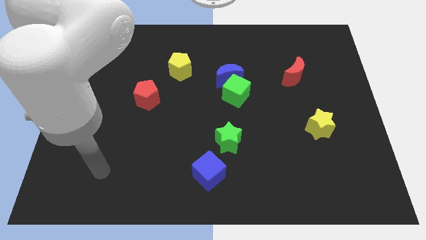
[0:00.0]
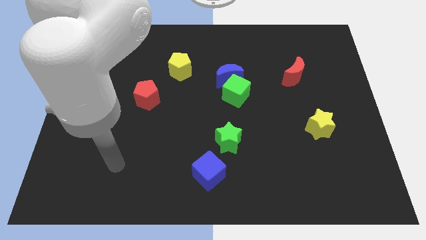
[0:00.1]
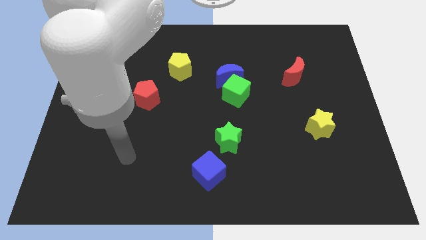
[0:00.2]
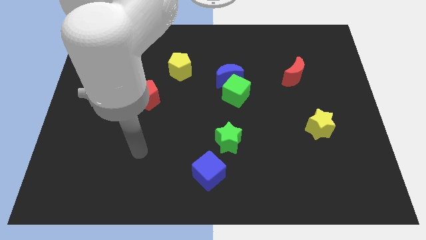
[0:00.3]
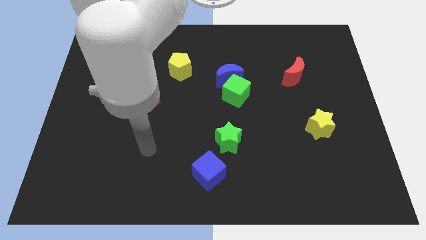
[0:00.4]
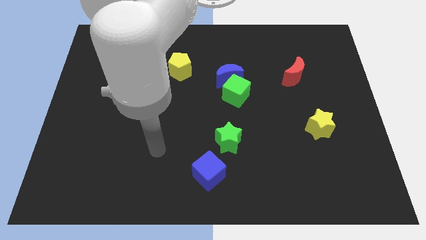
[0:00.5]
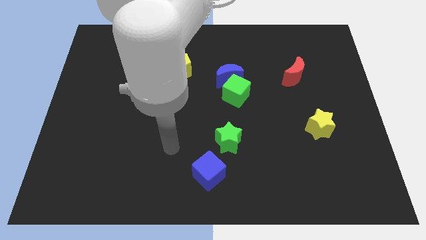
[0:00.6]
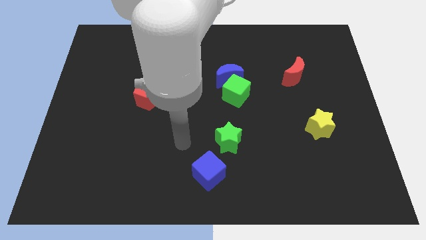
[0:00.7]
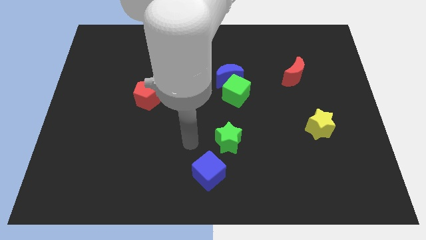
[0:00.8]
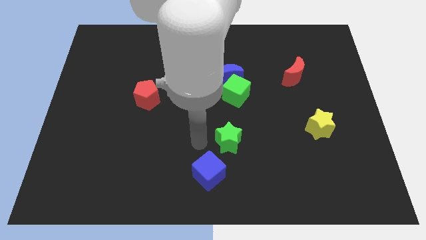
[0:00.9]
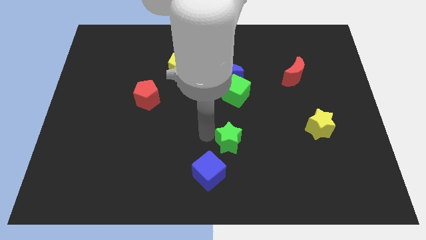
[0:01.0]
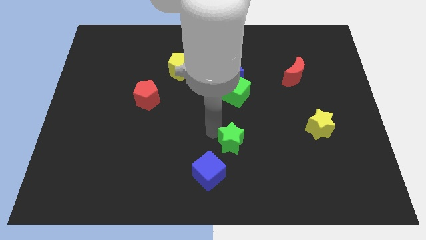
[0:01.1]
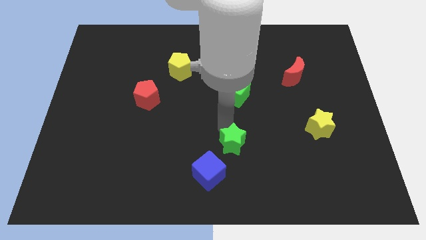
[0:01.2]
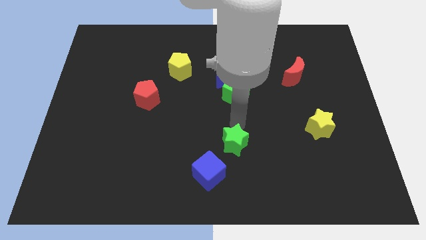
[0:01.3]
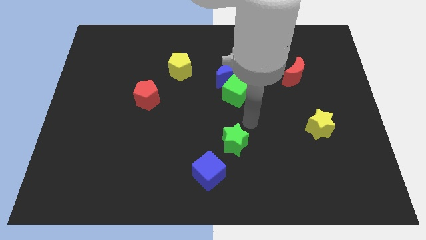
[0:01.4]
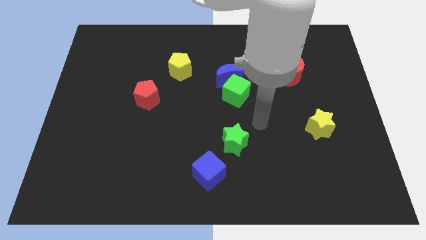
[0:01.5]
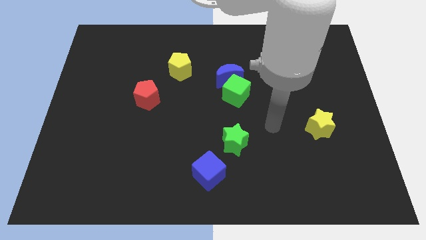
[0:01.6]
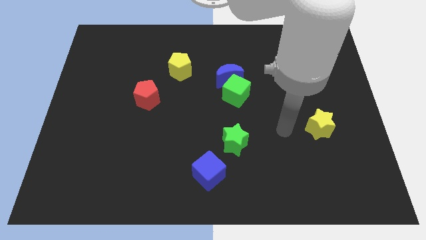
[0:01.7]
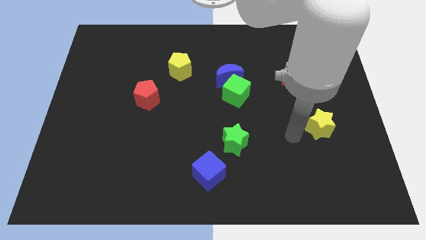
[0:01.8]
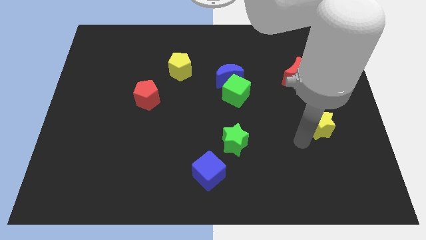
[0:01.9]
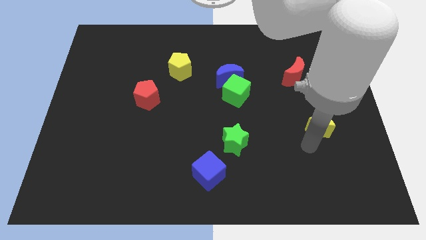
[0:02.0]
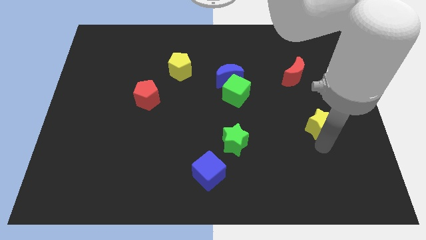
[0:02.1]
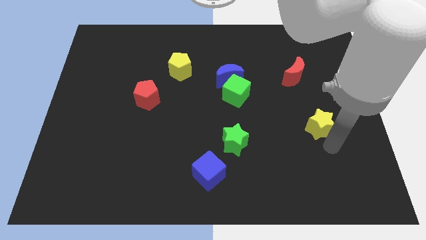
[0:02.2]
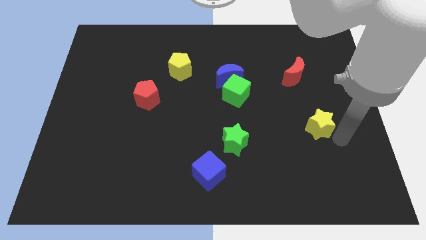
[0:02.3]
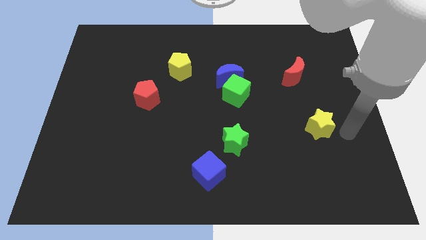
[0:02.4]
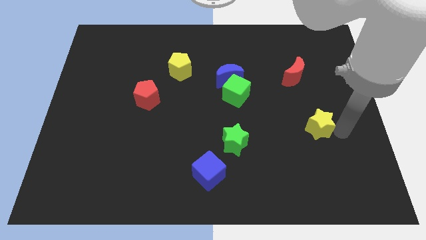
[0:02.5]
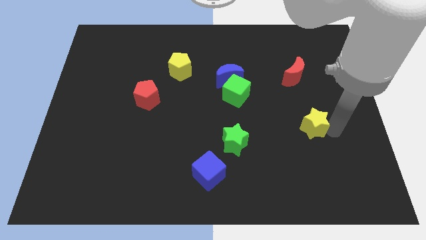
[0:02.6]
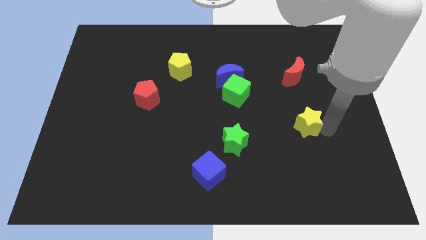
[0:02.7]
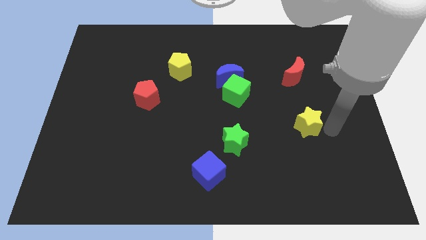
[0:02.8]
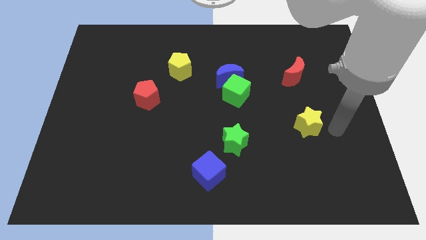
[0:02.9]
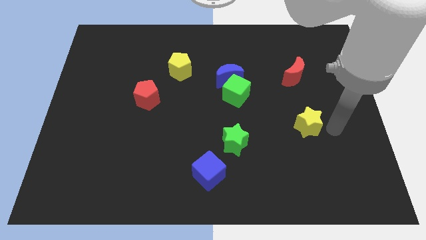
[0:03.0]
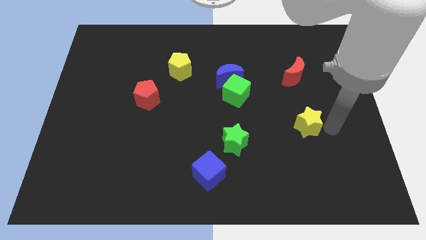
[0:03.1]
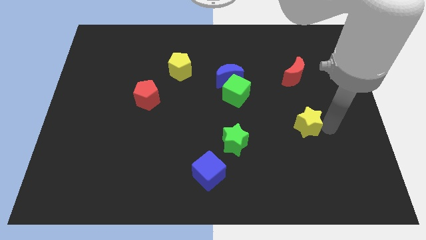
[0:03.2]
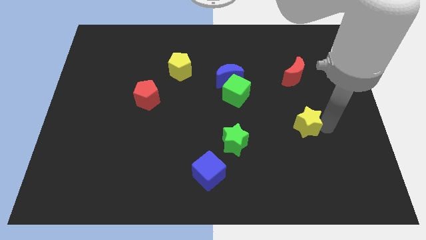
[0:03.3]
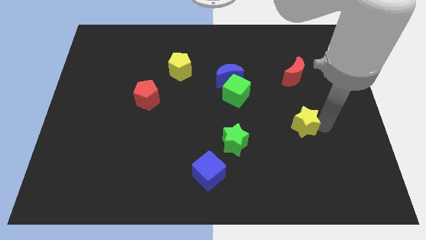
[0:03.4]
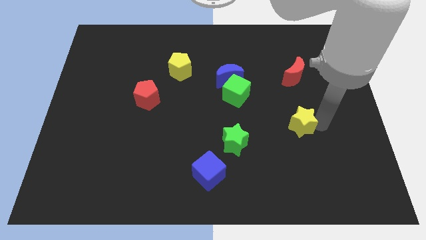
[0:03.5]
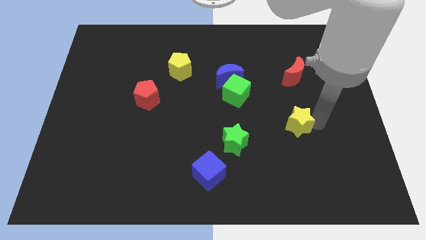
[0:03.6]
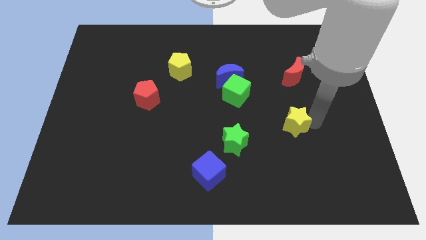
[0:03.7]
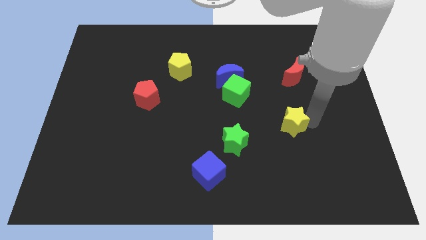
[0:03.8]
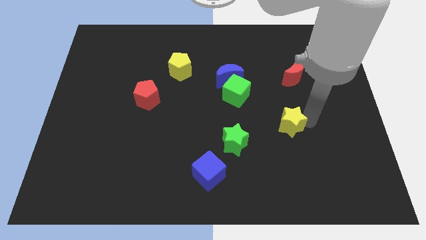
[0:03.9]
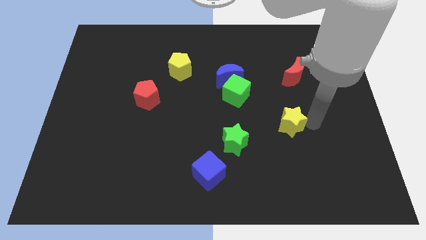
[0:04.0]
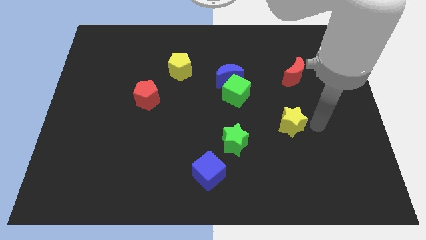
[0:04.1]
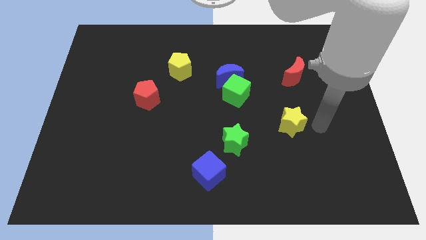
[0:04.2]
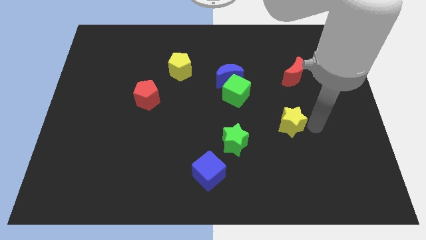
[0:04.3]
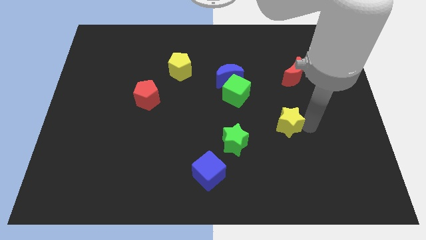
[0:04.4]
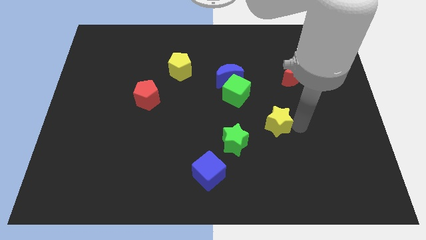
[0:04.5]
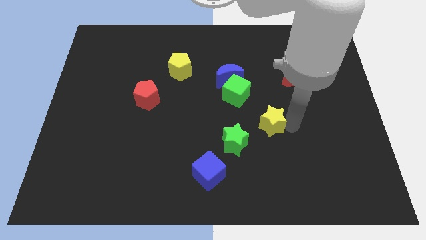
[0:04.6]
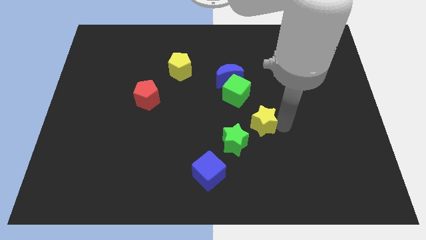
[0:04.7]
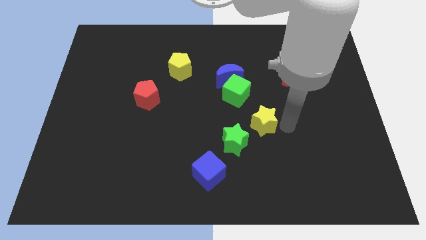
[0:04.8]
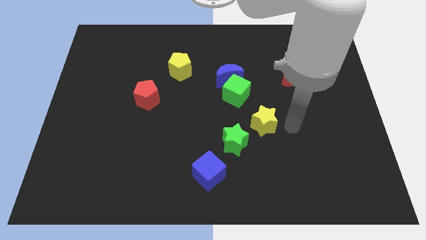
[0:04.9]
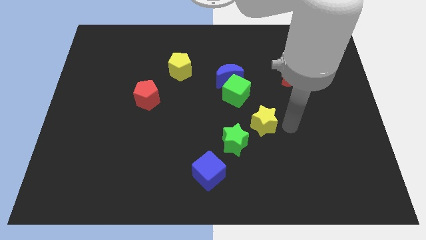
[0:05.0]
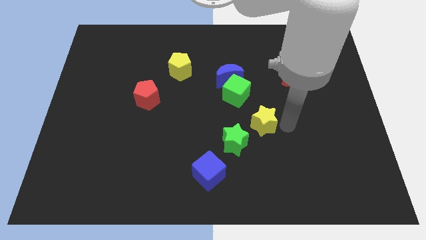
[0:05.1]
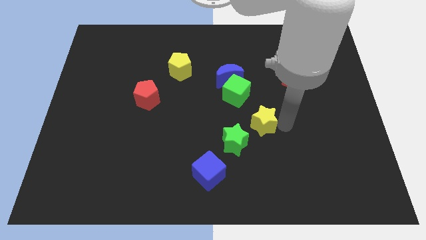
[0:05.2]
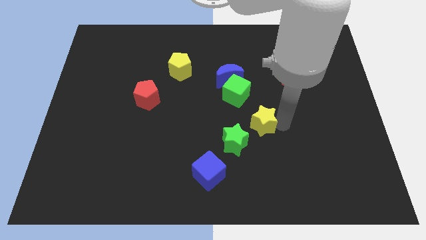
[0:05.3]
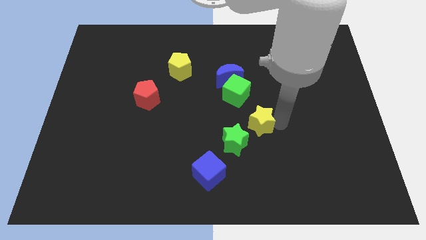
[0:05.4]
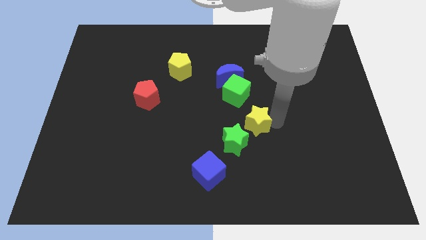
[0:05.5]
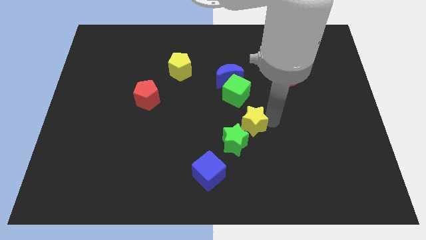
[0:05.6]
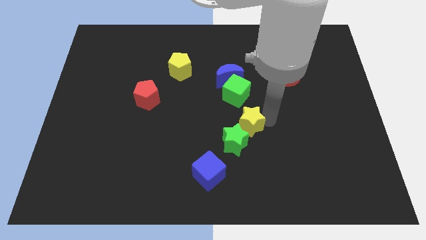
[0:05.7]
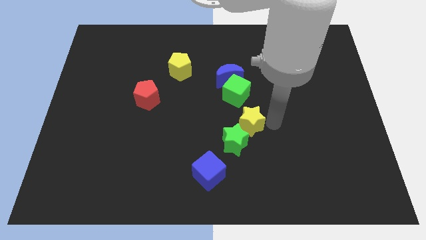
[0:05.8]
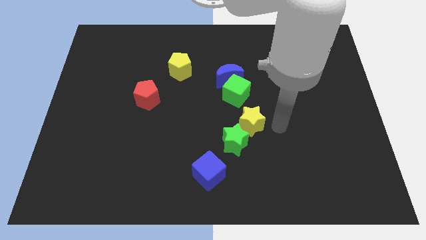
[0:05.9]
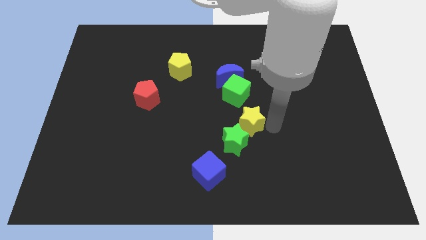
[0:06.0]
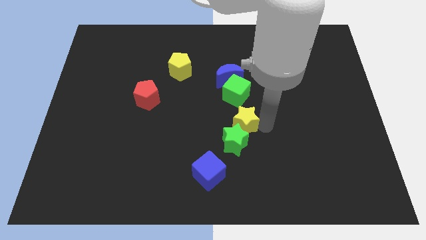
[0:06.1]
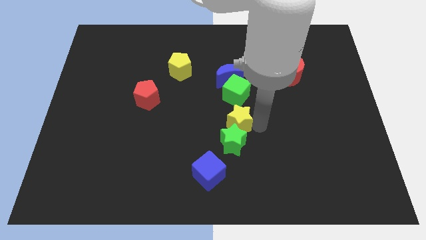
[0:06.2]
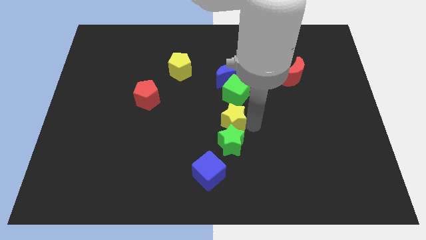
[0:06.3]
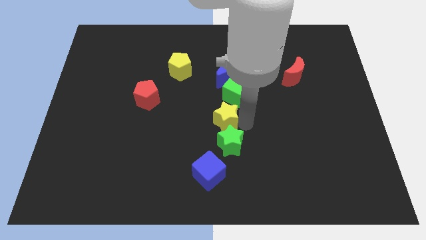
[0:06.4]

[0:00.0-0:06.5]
push the yellow star left

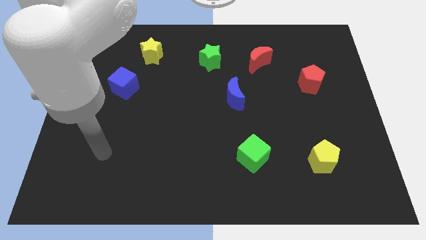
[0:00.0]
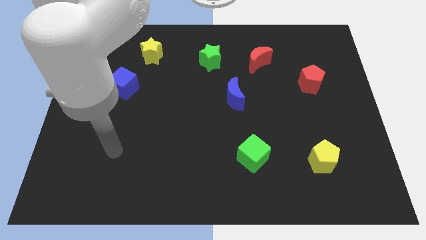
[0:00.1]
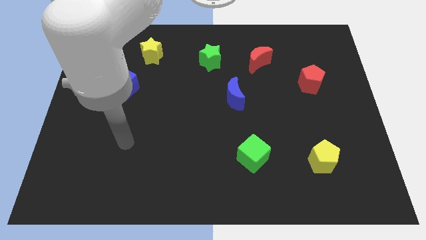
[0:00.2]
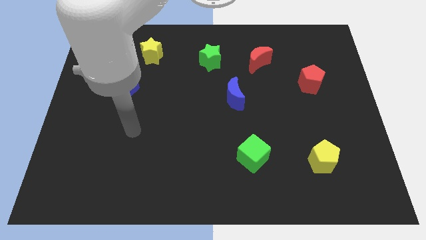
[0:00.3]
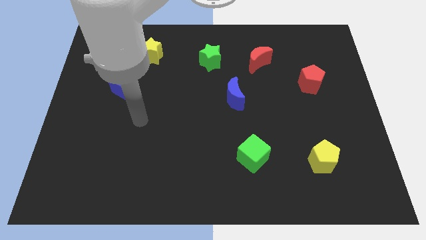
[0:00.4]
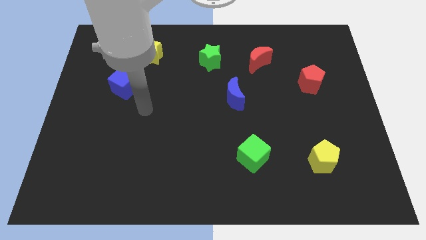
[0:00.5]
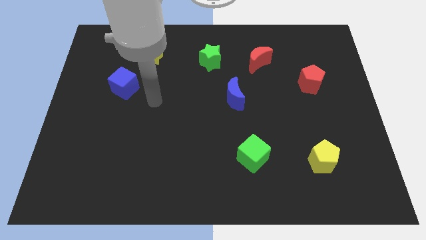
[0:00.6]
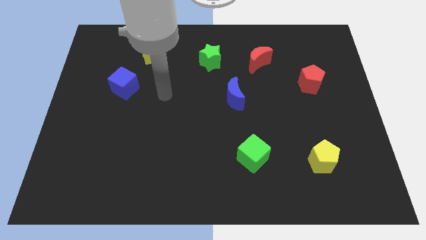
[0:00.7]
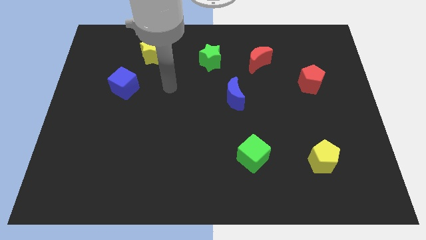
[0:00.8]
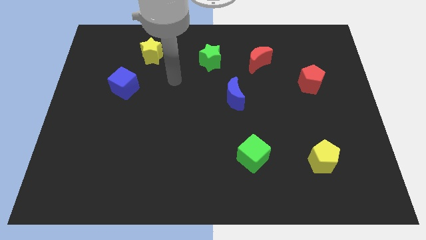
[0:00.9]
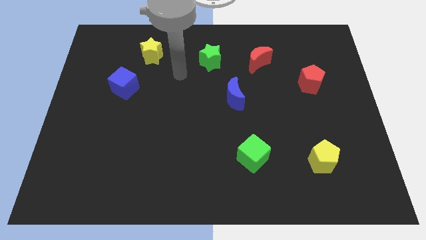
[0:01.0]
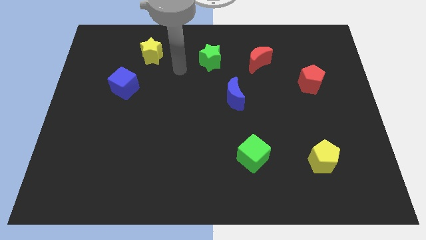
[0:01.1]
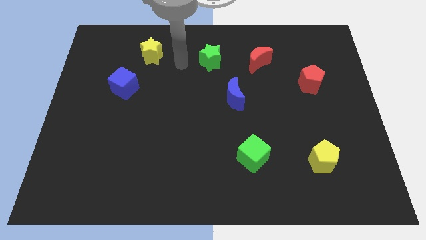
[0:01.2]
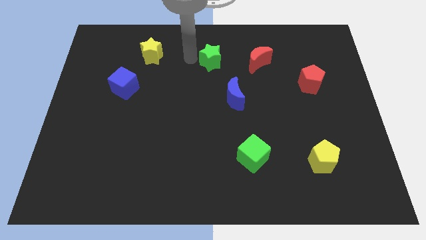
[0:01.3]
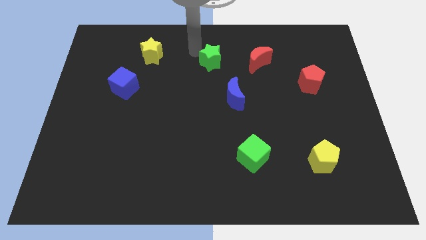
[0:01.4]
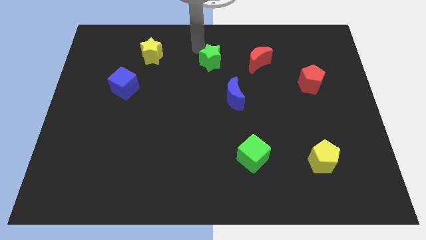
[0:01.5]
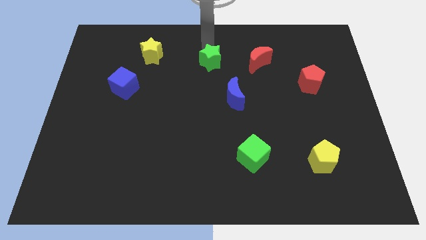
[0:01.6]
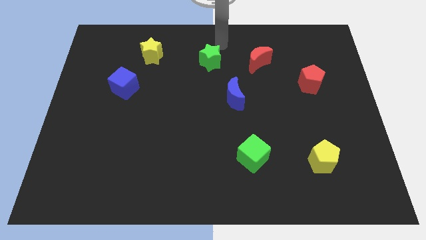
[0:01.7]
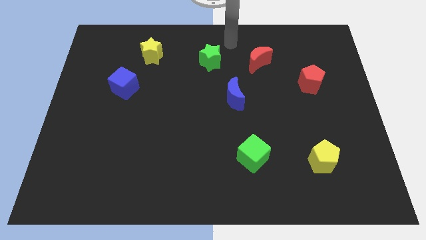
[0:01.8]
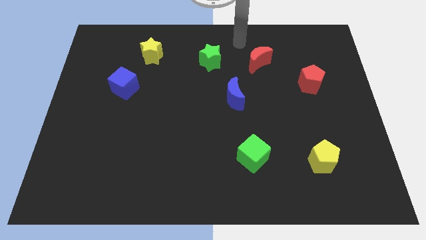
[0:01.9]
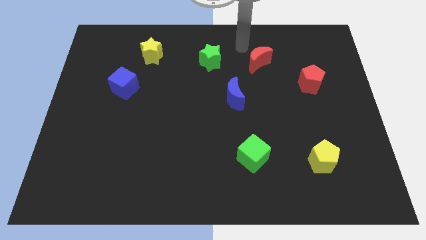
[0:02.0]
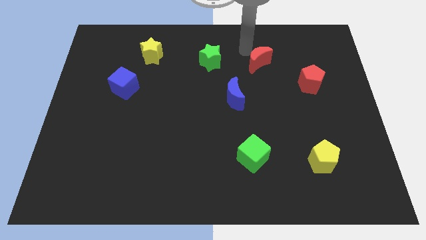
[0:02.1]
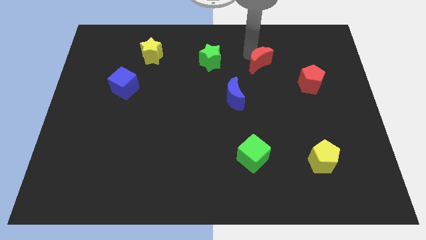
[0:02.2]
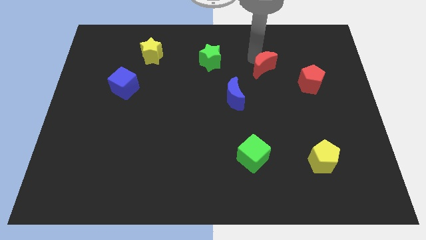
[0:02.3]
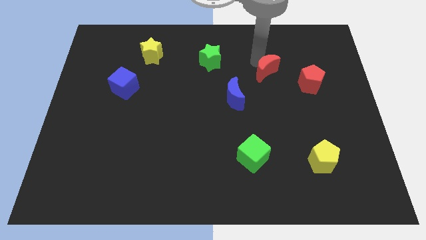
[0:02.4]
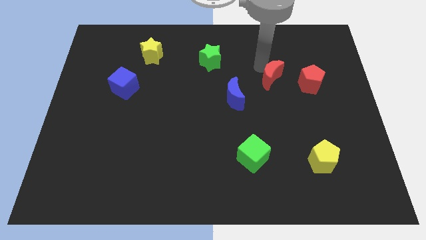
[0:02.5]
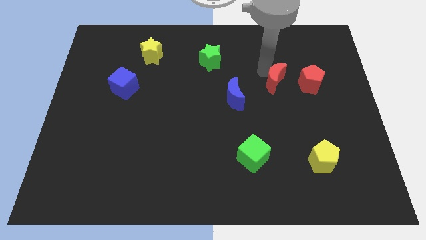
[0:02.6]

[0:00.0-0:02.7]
slightly move the red moon downwards and then to the right
